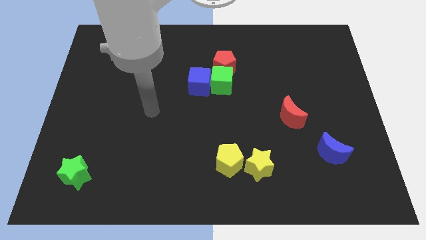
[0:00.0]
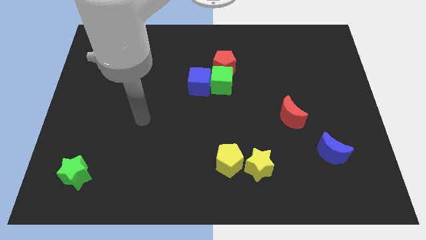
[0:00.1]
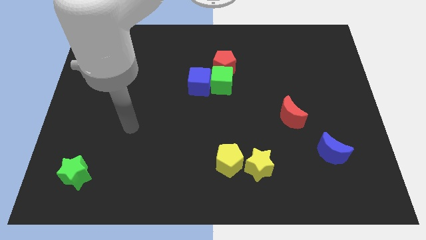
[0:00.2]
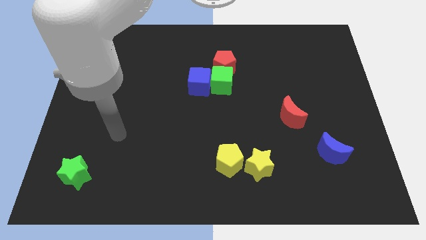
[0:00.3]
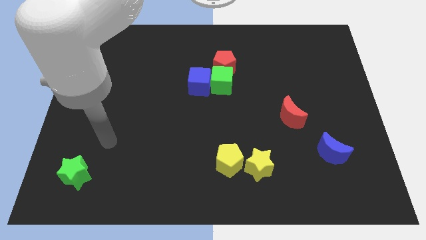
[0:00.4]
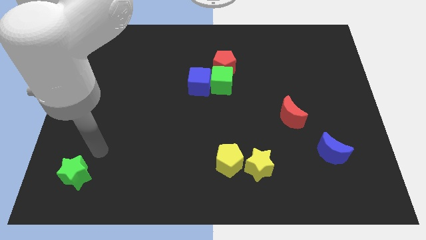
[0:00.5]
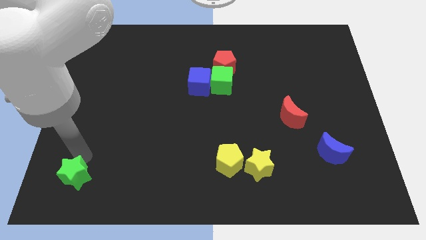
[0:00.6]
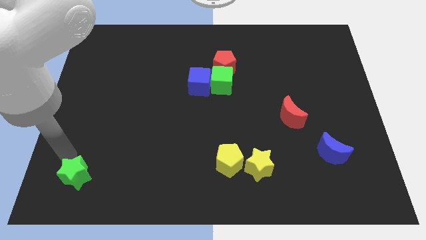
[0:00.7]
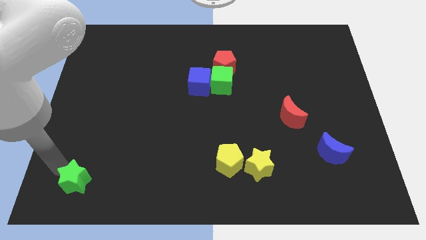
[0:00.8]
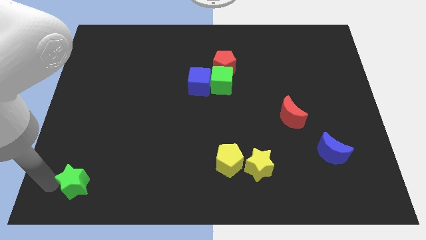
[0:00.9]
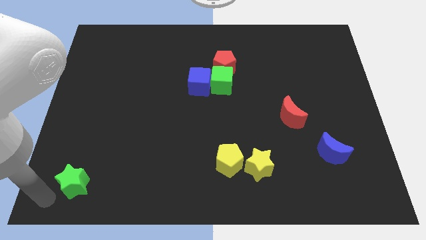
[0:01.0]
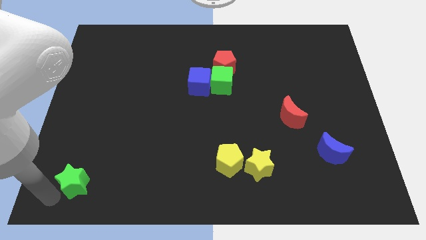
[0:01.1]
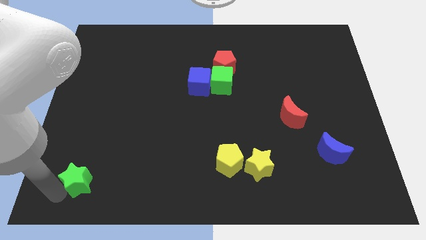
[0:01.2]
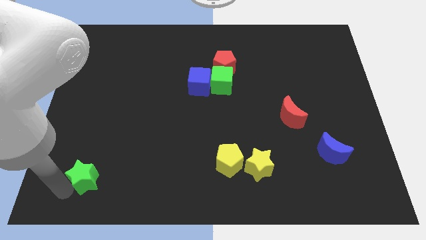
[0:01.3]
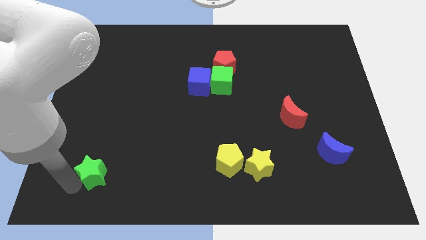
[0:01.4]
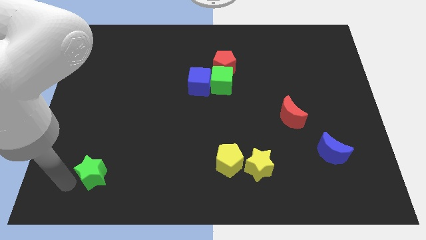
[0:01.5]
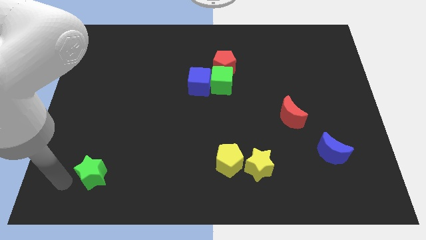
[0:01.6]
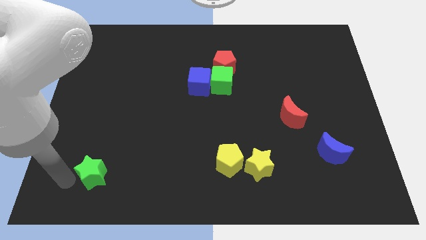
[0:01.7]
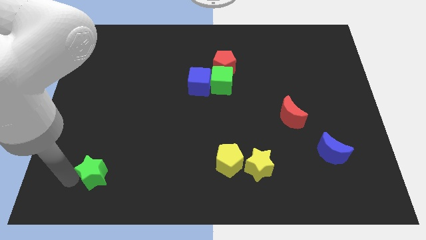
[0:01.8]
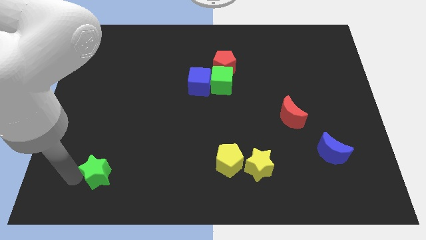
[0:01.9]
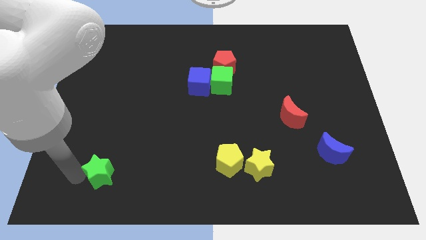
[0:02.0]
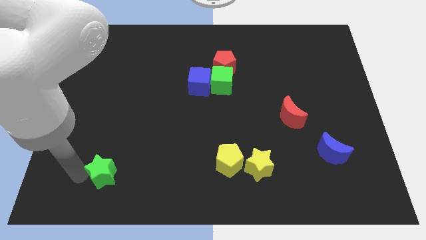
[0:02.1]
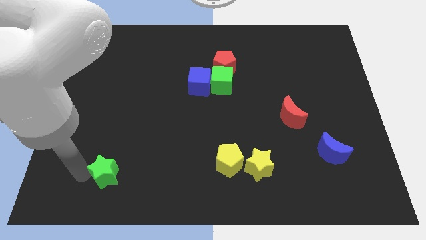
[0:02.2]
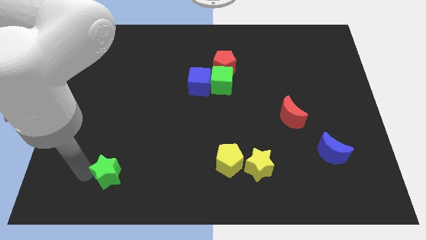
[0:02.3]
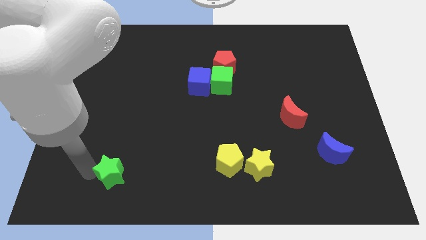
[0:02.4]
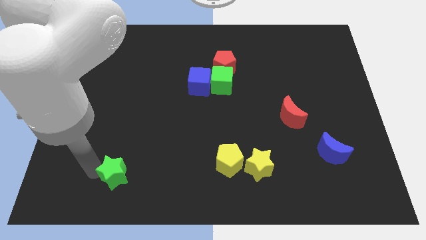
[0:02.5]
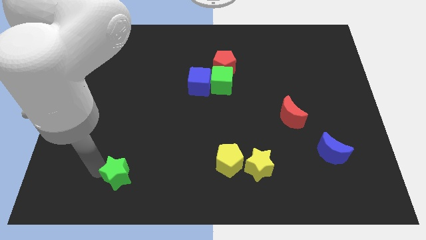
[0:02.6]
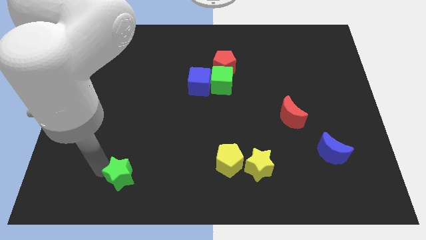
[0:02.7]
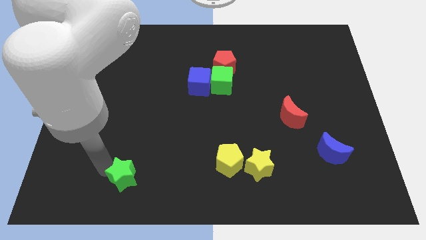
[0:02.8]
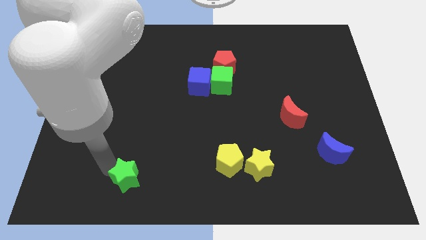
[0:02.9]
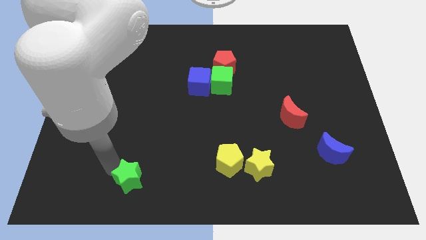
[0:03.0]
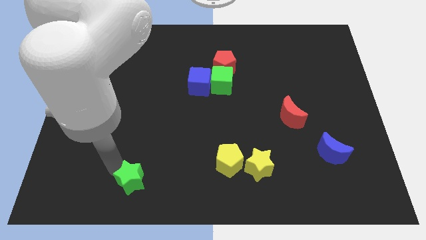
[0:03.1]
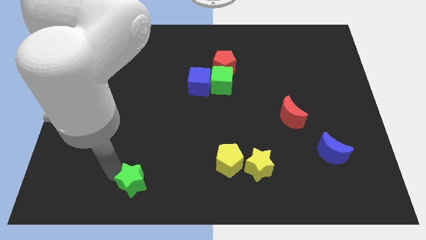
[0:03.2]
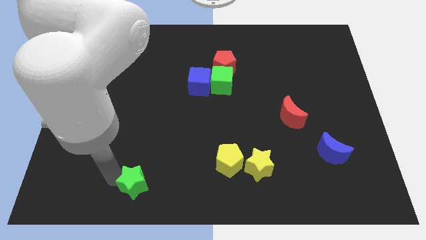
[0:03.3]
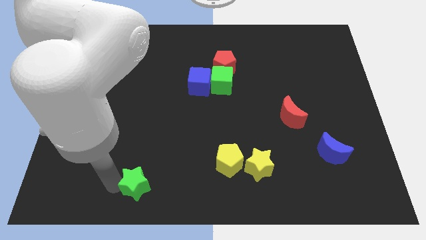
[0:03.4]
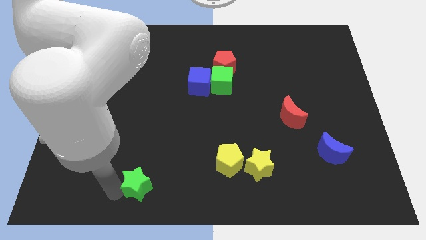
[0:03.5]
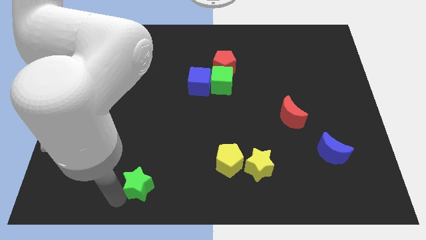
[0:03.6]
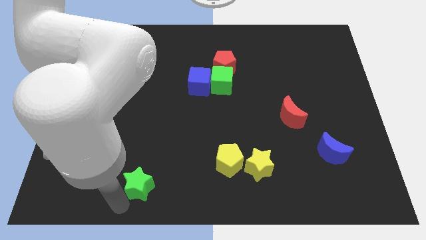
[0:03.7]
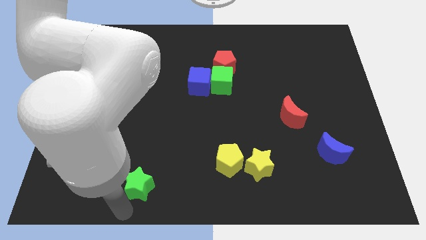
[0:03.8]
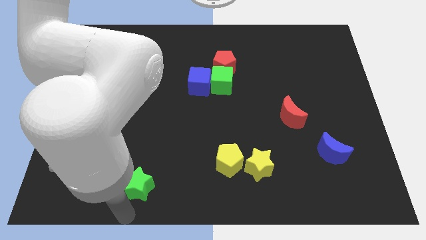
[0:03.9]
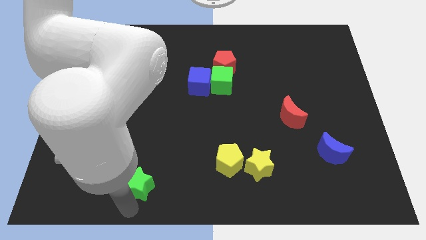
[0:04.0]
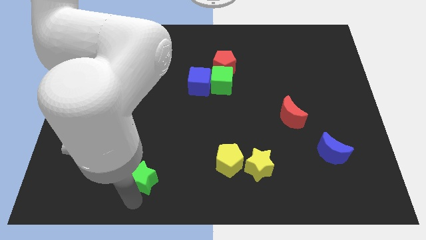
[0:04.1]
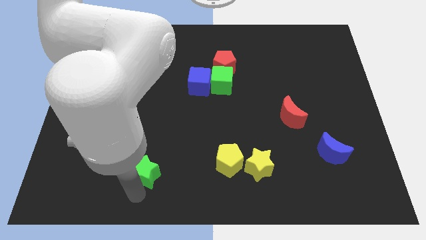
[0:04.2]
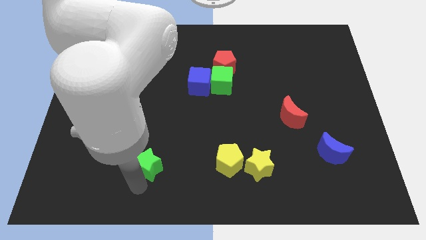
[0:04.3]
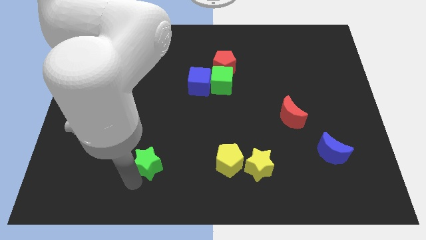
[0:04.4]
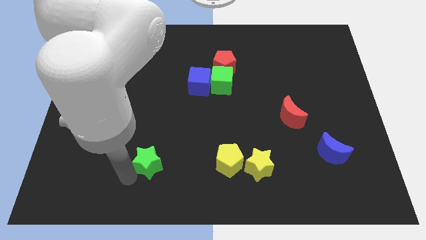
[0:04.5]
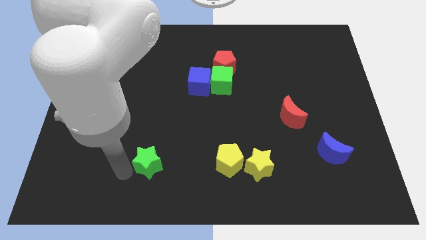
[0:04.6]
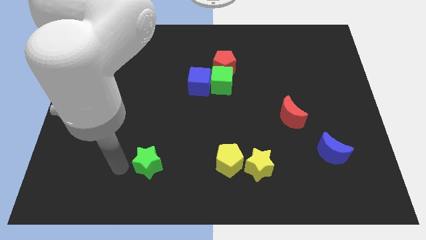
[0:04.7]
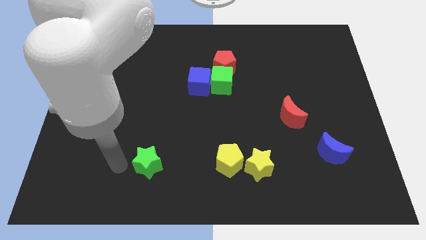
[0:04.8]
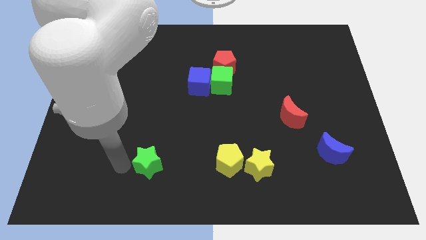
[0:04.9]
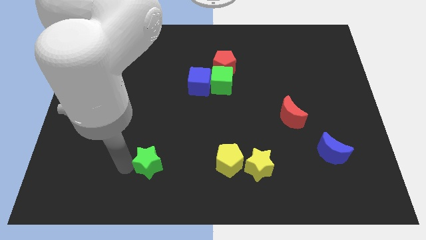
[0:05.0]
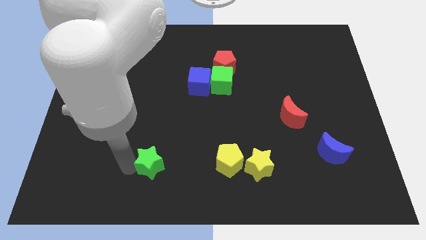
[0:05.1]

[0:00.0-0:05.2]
push the green star to the left side of the yellow pentagon

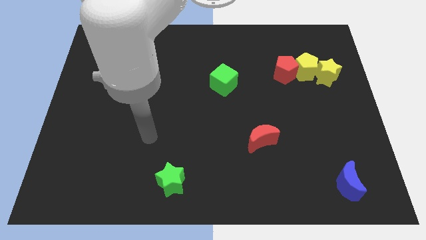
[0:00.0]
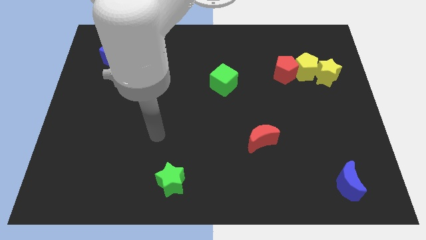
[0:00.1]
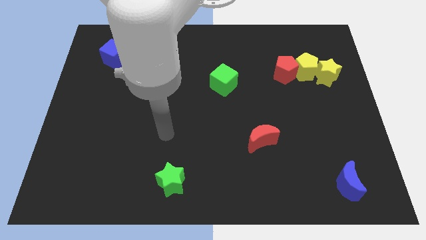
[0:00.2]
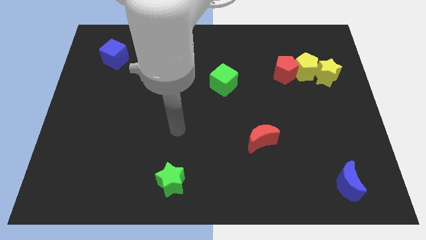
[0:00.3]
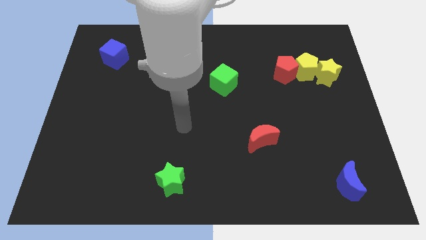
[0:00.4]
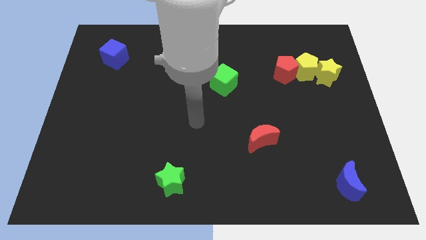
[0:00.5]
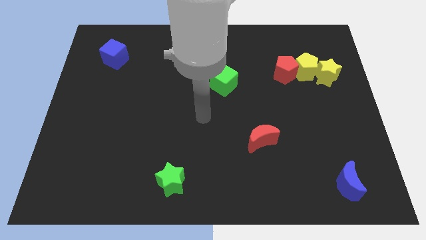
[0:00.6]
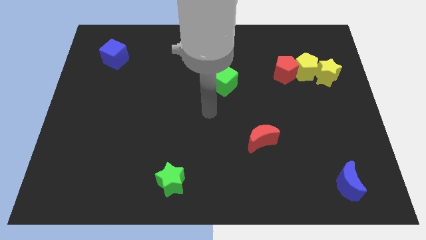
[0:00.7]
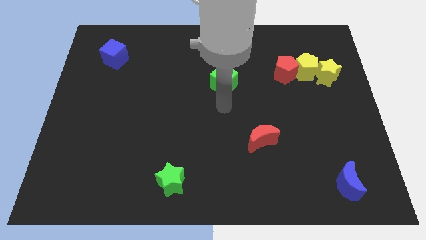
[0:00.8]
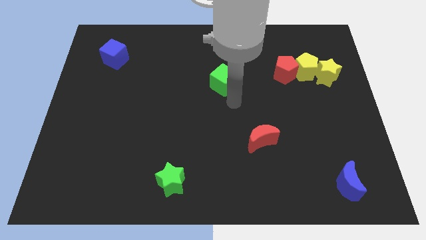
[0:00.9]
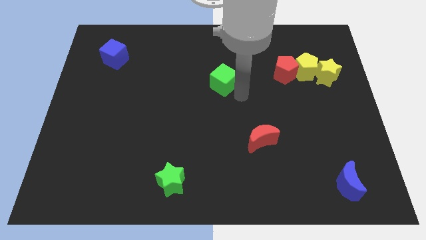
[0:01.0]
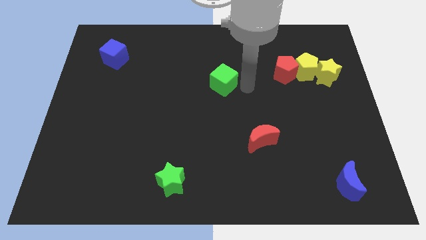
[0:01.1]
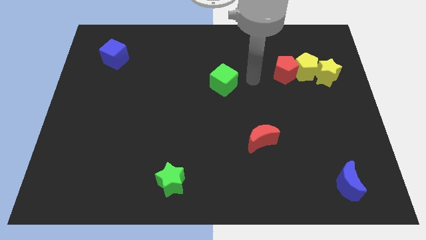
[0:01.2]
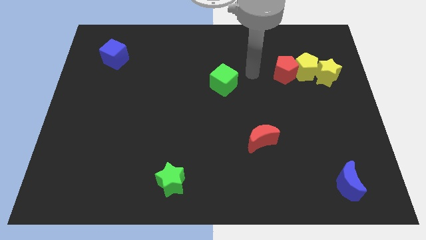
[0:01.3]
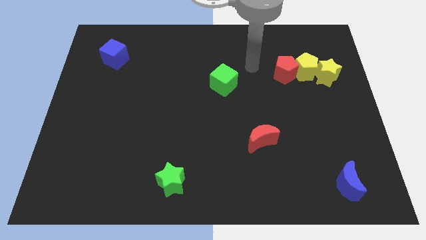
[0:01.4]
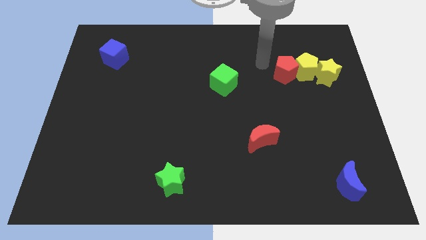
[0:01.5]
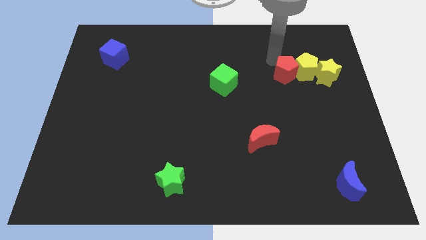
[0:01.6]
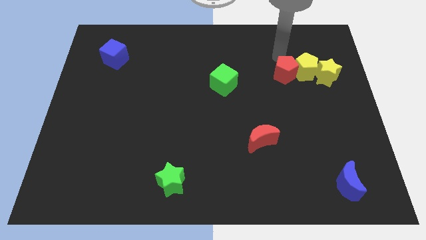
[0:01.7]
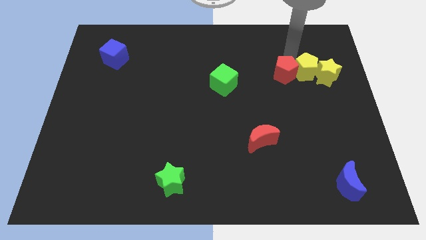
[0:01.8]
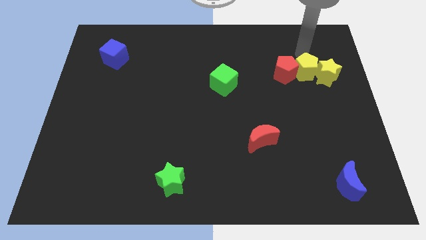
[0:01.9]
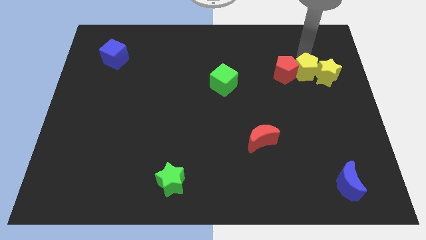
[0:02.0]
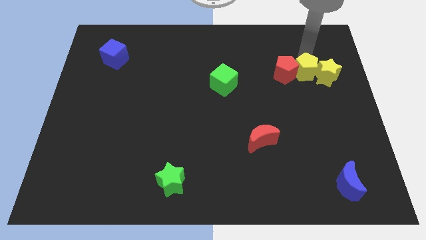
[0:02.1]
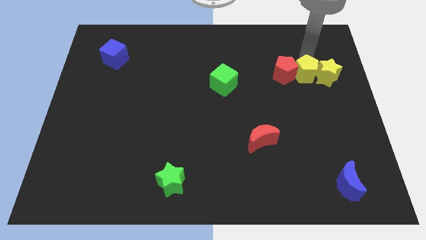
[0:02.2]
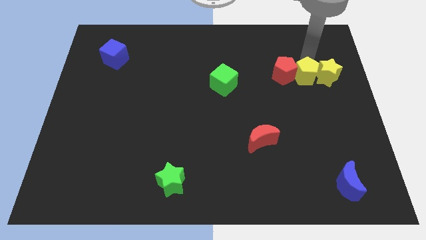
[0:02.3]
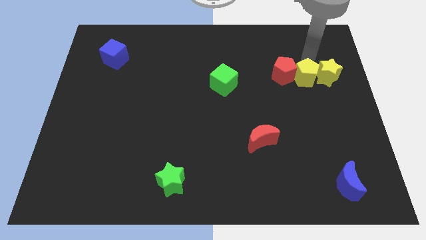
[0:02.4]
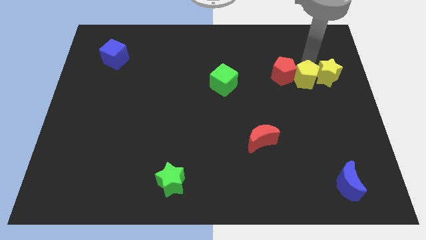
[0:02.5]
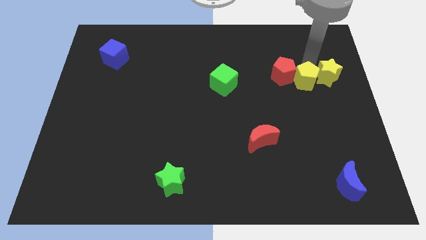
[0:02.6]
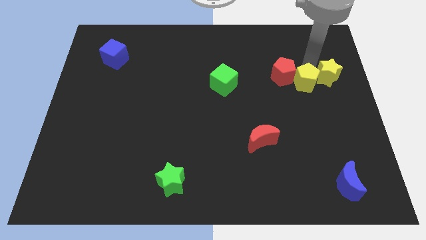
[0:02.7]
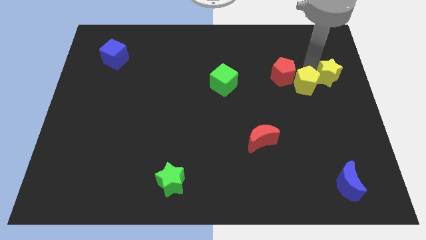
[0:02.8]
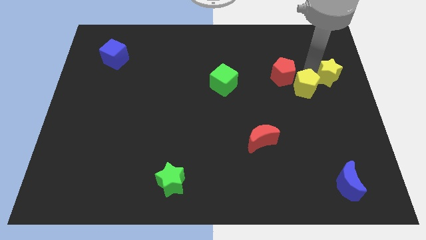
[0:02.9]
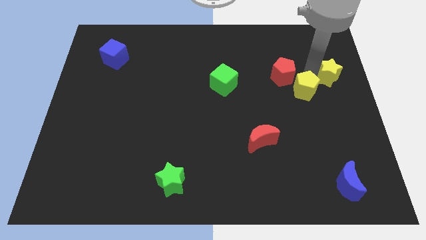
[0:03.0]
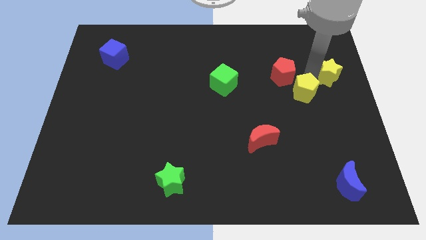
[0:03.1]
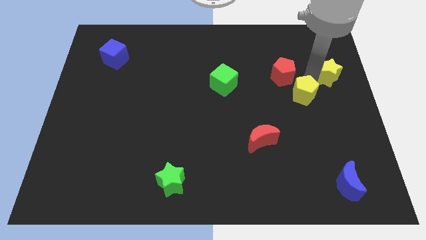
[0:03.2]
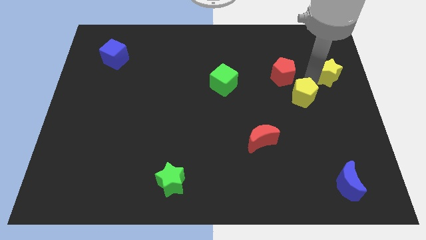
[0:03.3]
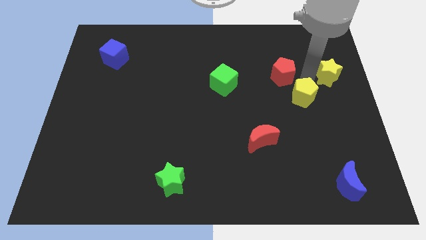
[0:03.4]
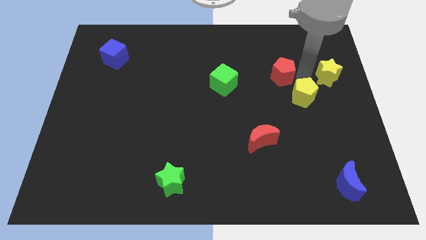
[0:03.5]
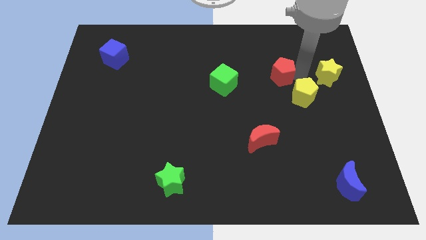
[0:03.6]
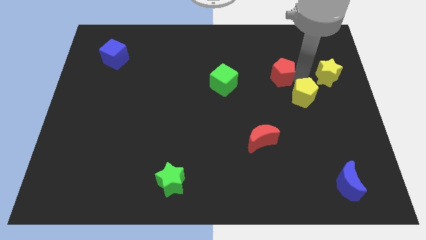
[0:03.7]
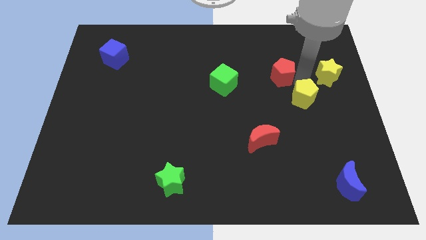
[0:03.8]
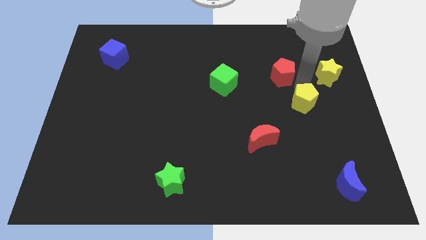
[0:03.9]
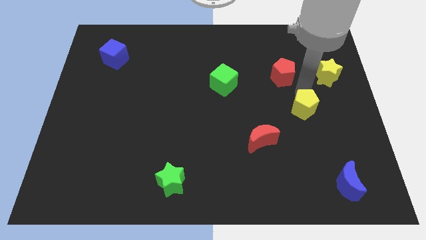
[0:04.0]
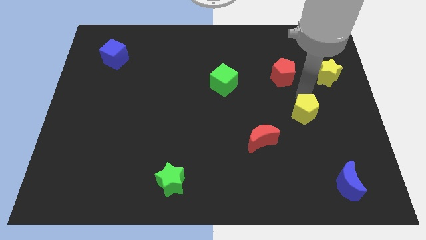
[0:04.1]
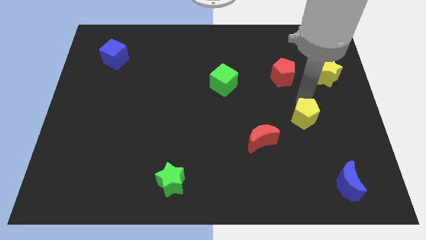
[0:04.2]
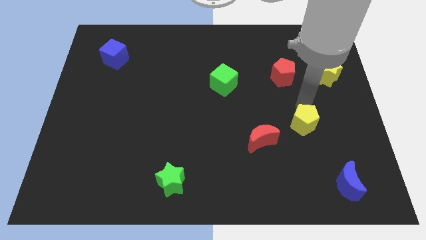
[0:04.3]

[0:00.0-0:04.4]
put the yellow pentagon to the right side of the red moon
